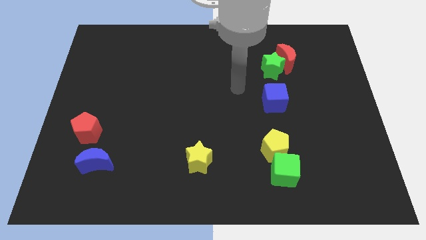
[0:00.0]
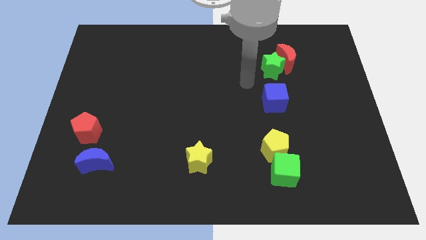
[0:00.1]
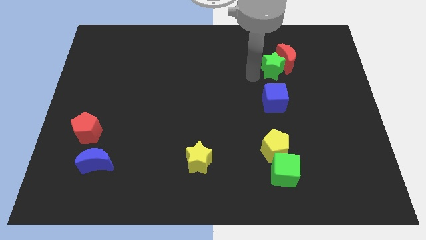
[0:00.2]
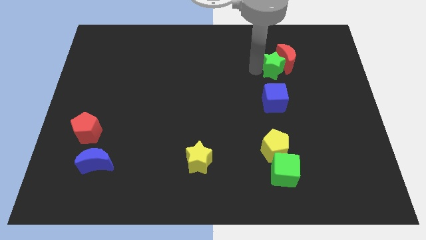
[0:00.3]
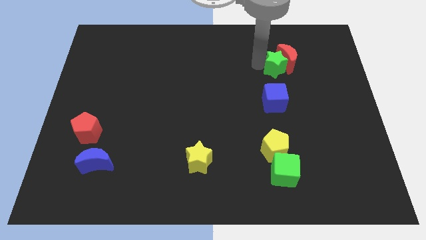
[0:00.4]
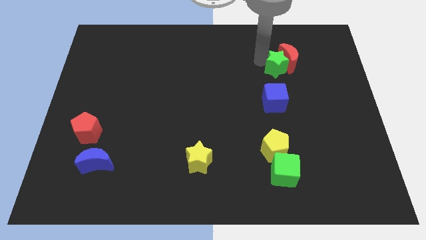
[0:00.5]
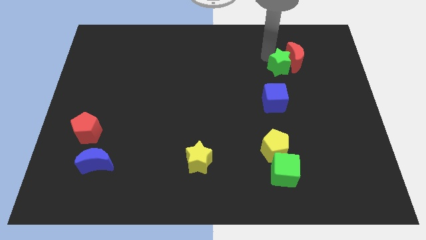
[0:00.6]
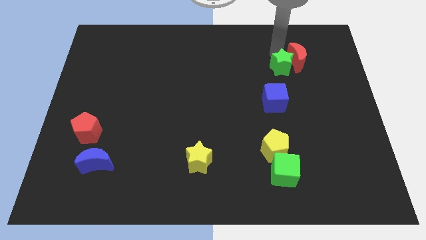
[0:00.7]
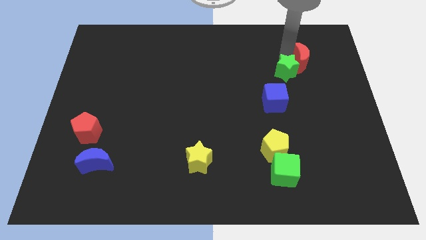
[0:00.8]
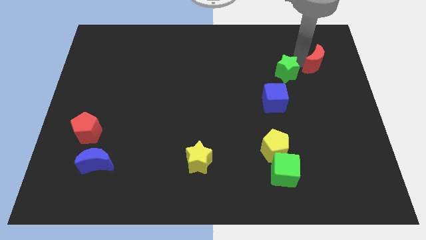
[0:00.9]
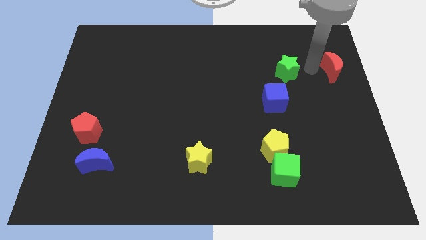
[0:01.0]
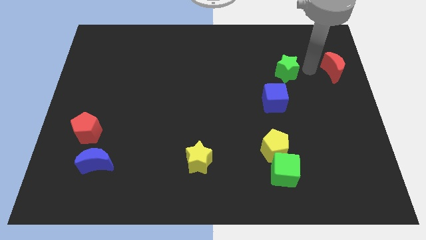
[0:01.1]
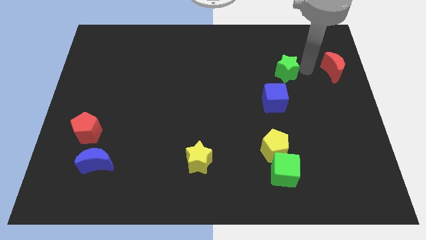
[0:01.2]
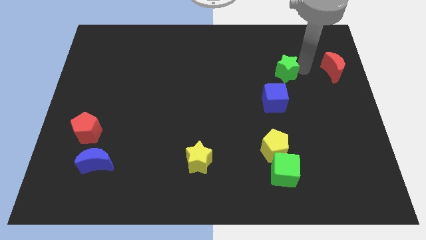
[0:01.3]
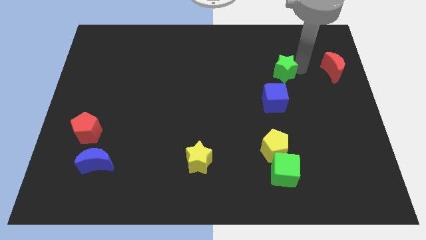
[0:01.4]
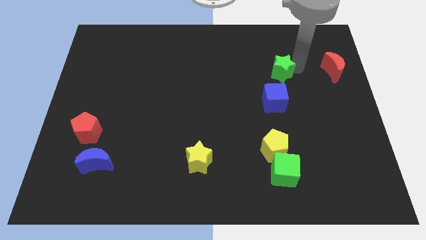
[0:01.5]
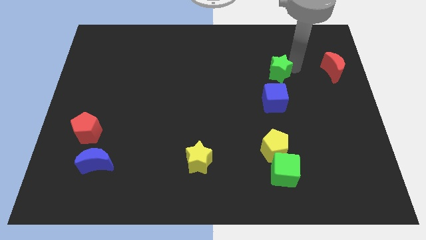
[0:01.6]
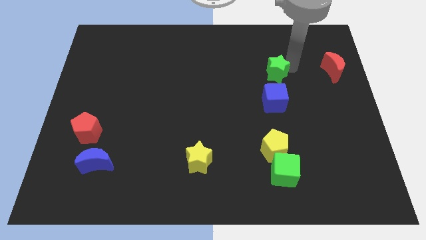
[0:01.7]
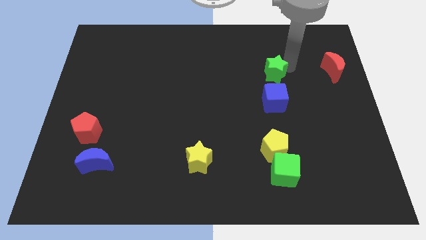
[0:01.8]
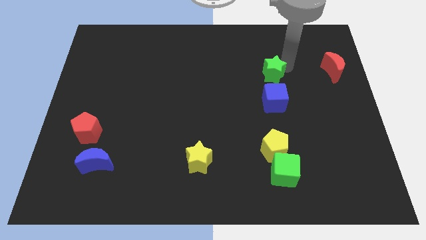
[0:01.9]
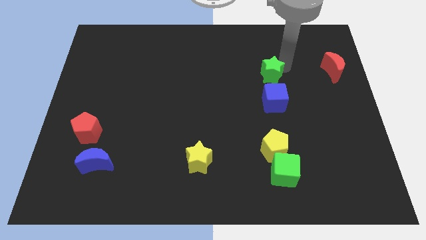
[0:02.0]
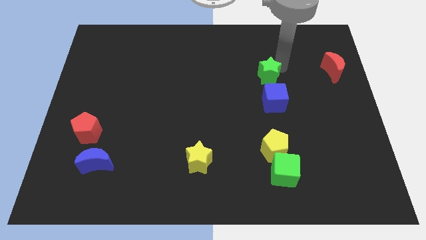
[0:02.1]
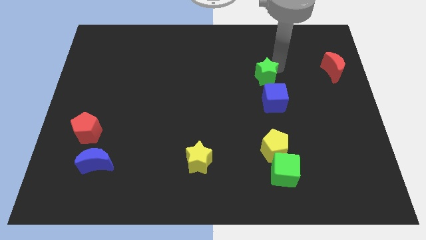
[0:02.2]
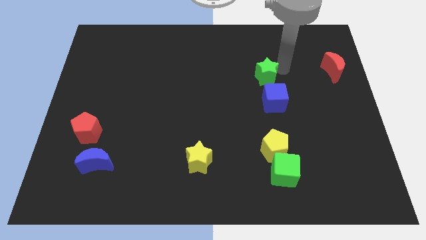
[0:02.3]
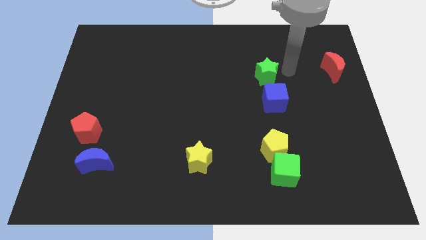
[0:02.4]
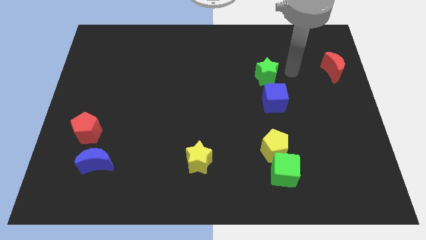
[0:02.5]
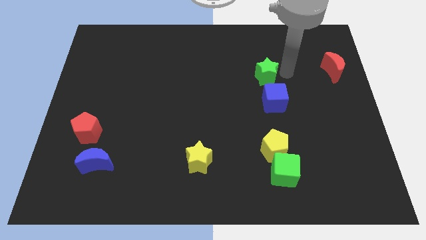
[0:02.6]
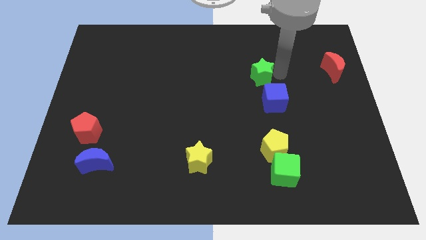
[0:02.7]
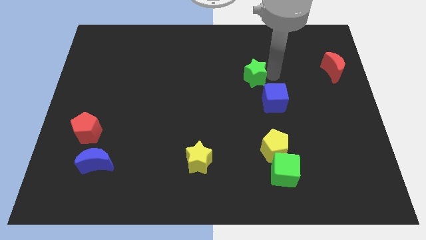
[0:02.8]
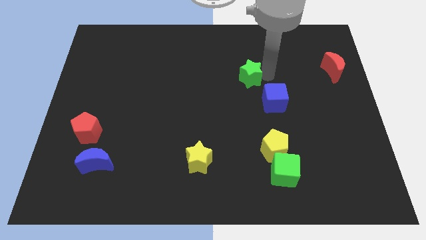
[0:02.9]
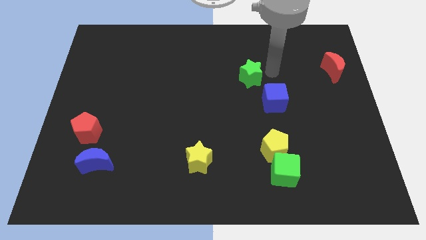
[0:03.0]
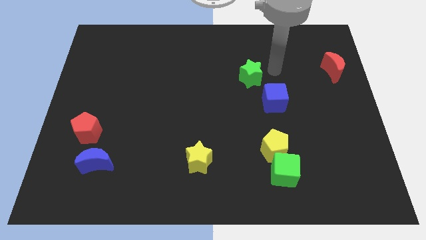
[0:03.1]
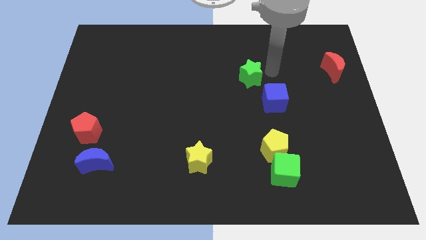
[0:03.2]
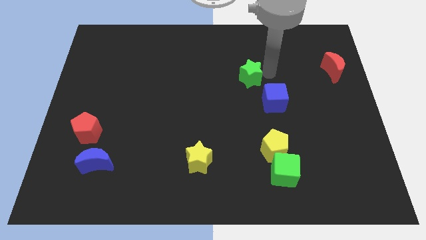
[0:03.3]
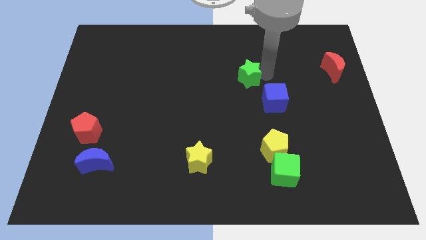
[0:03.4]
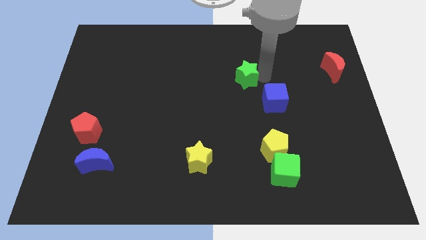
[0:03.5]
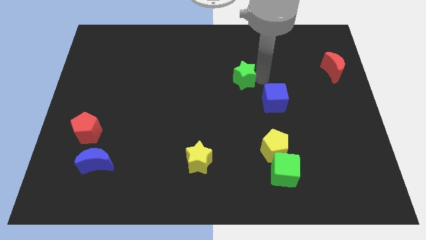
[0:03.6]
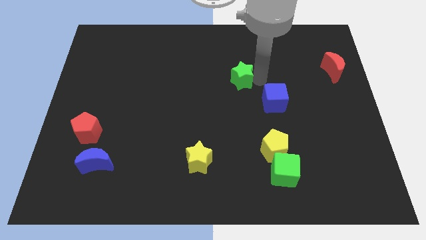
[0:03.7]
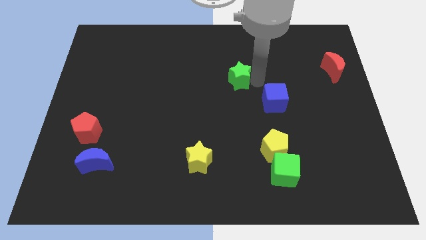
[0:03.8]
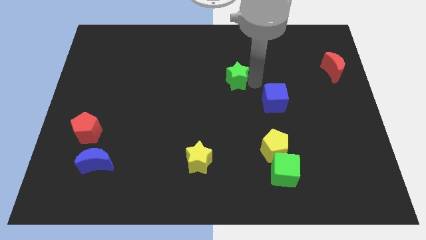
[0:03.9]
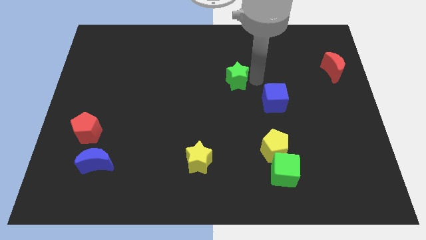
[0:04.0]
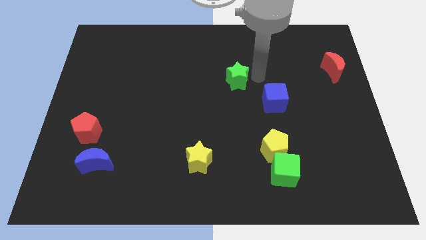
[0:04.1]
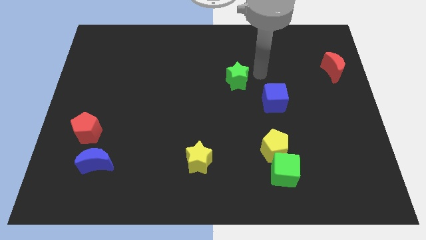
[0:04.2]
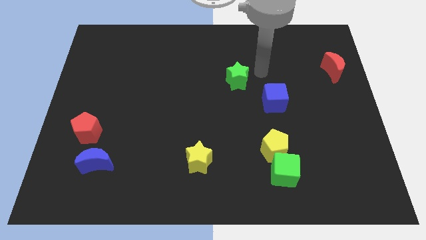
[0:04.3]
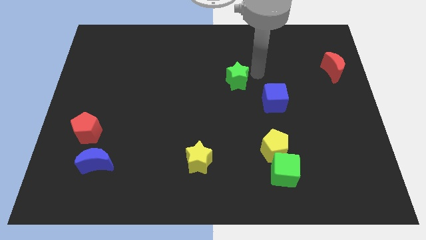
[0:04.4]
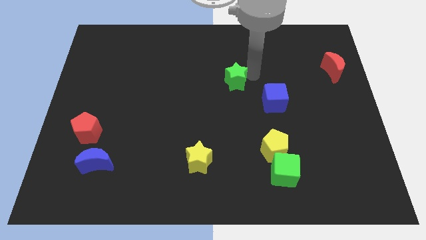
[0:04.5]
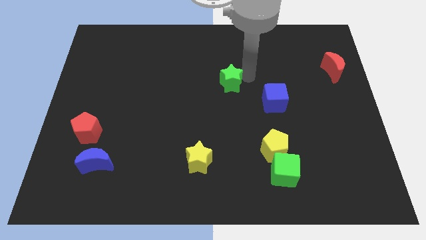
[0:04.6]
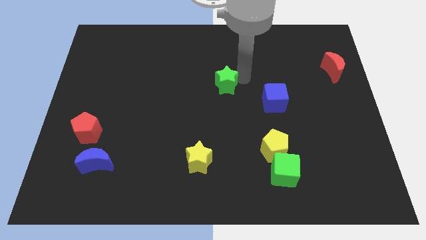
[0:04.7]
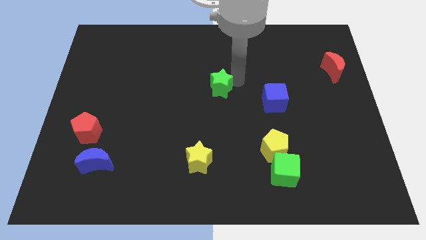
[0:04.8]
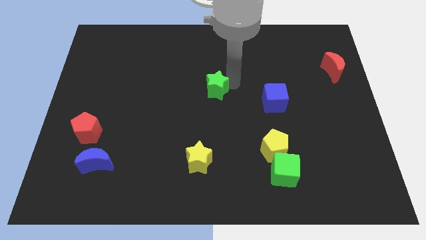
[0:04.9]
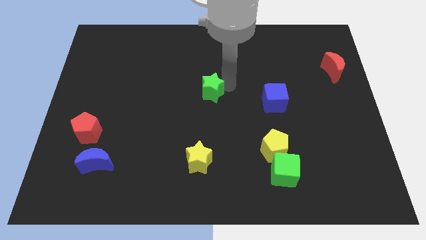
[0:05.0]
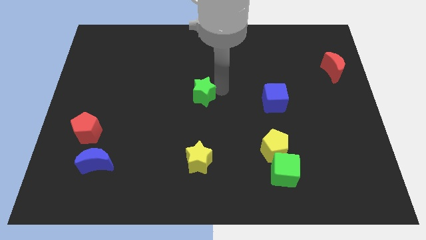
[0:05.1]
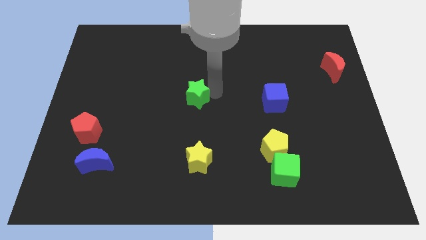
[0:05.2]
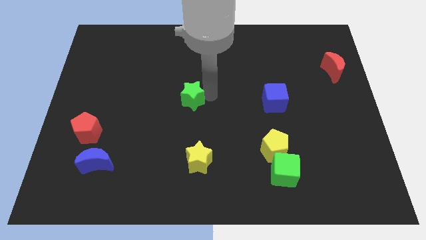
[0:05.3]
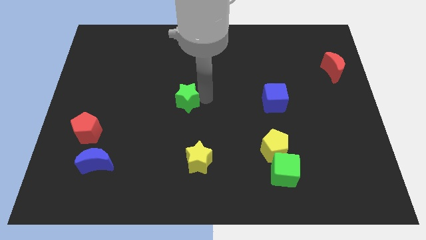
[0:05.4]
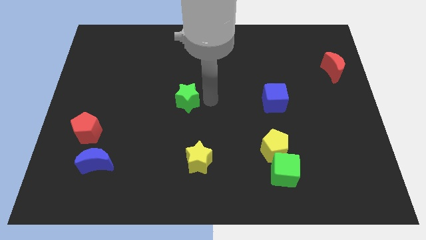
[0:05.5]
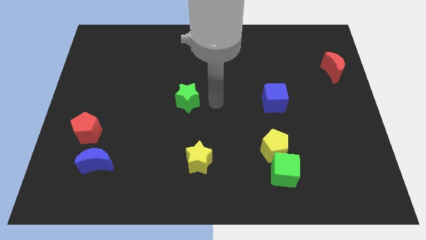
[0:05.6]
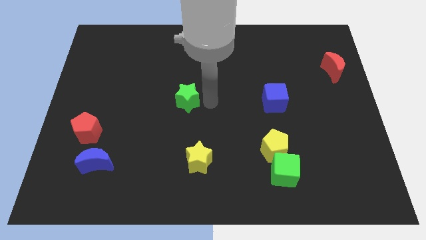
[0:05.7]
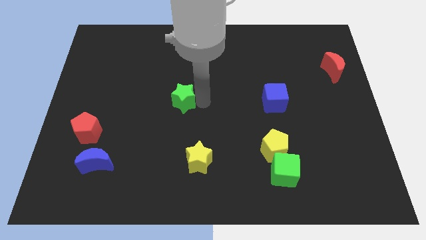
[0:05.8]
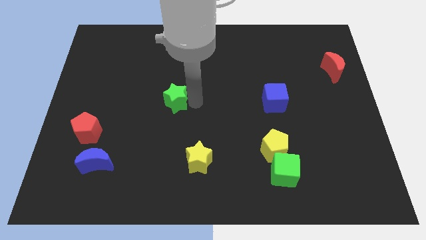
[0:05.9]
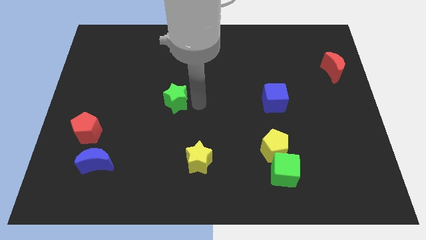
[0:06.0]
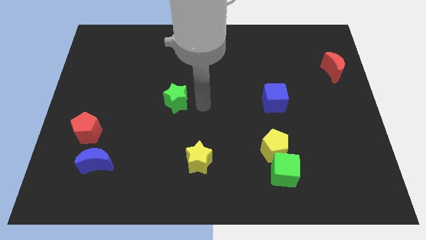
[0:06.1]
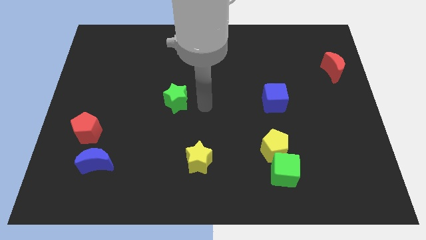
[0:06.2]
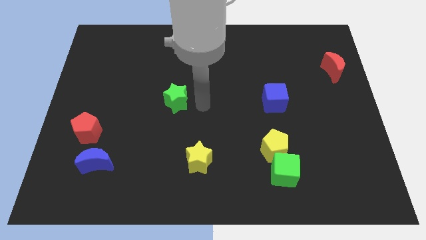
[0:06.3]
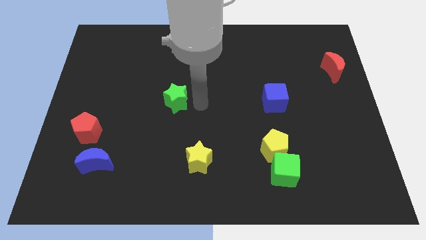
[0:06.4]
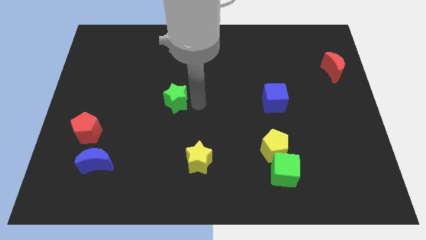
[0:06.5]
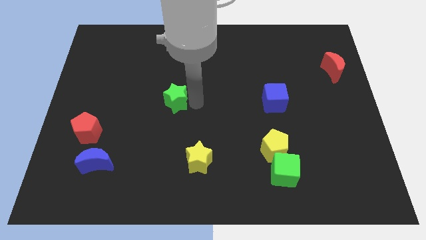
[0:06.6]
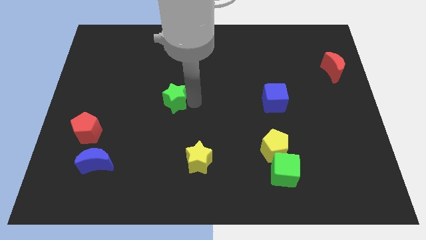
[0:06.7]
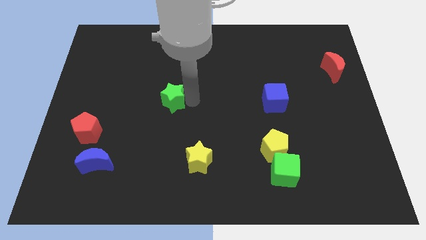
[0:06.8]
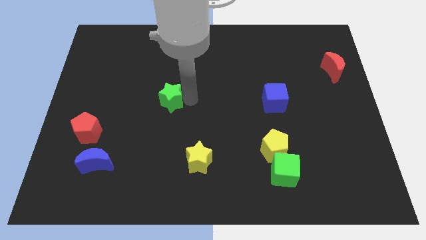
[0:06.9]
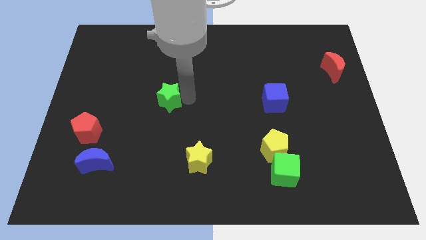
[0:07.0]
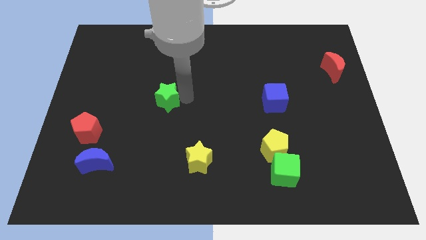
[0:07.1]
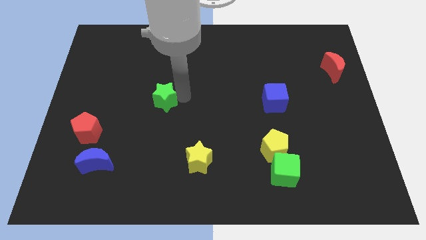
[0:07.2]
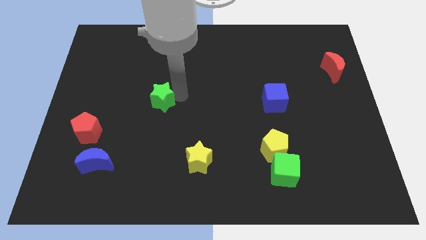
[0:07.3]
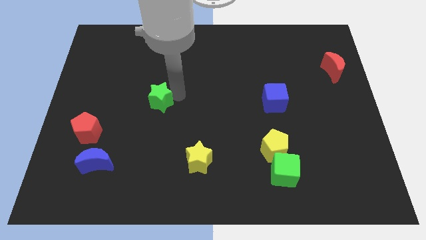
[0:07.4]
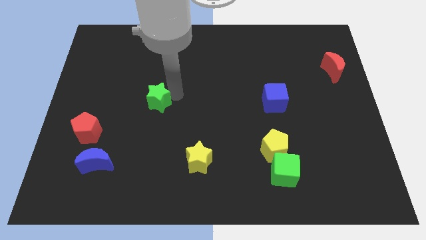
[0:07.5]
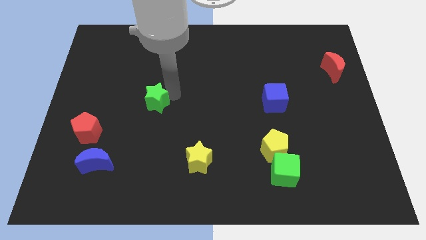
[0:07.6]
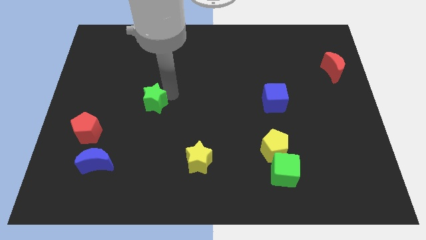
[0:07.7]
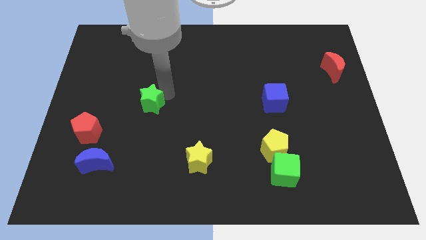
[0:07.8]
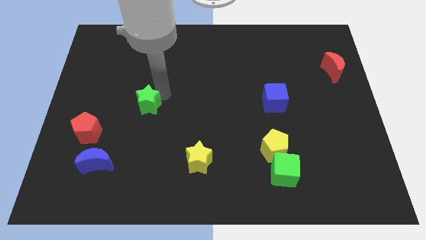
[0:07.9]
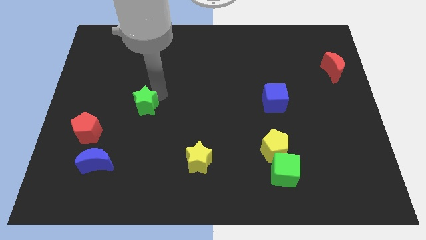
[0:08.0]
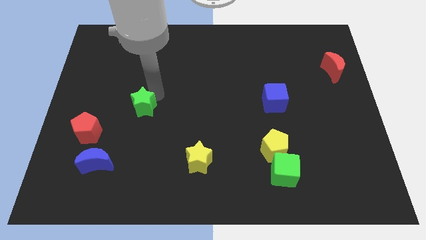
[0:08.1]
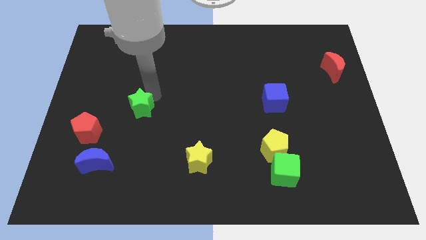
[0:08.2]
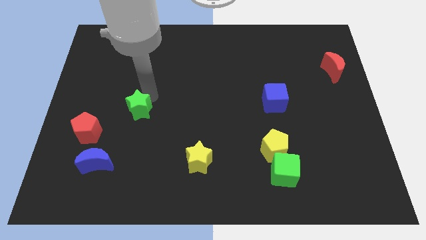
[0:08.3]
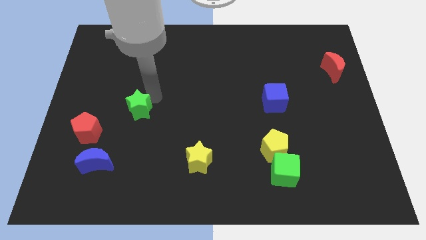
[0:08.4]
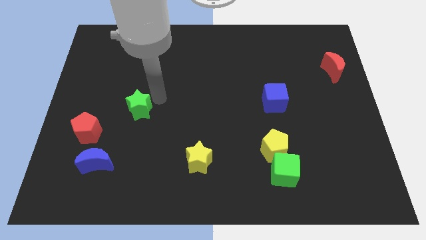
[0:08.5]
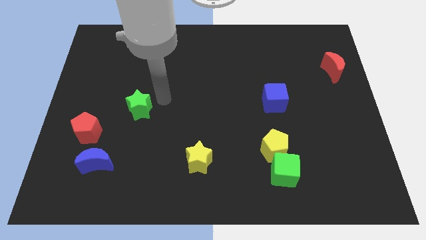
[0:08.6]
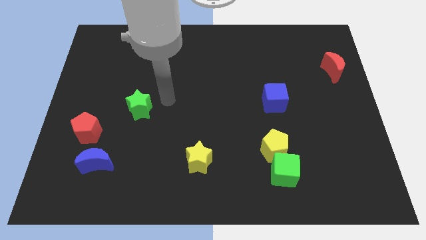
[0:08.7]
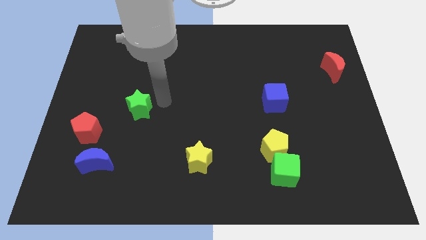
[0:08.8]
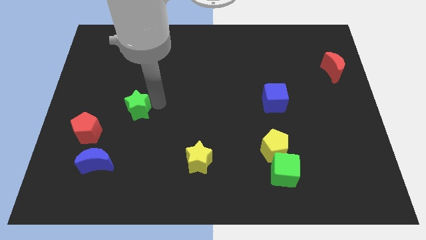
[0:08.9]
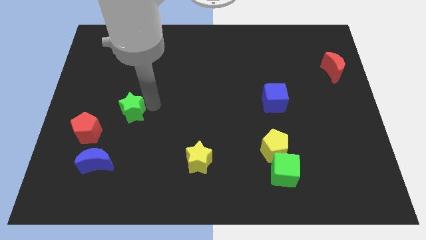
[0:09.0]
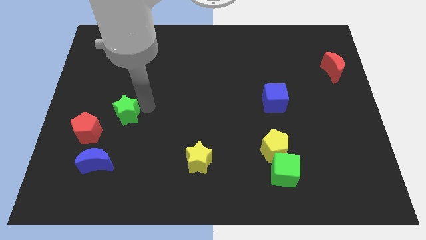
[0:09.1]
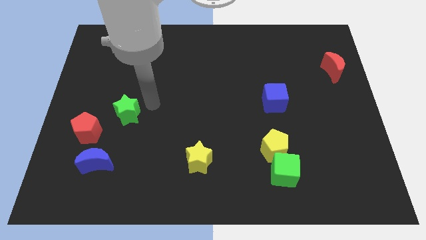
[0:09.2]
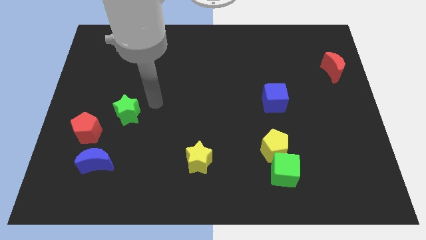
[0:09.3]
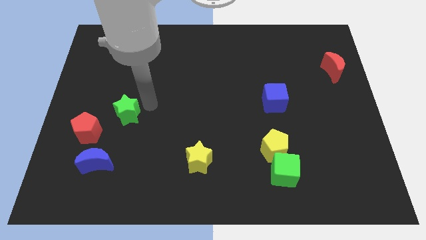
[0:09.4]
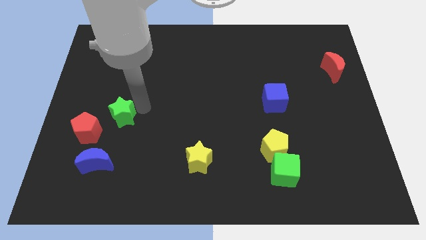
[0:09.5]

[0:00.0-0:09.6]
slide the green star above the blue moon
